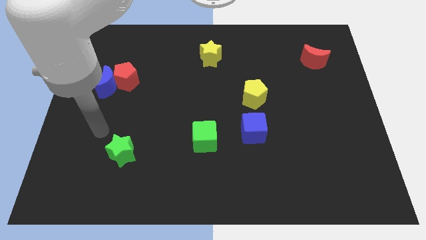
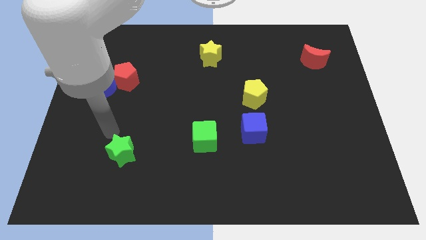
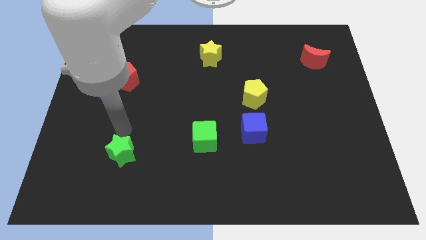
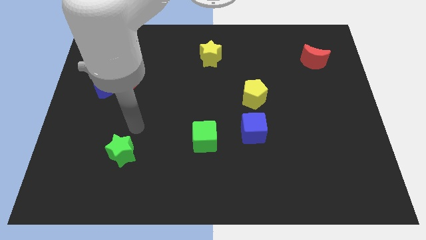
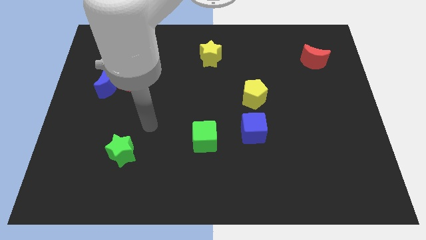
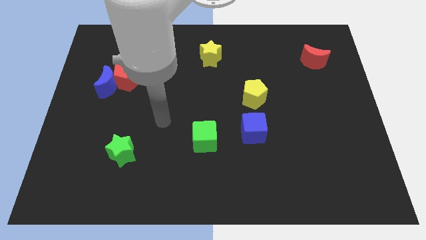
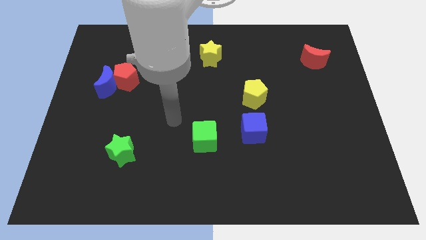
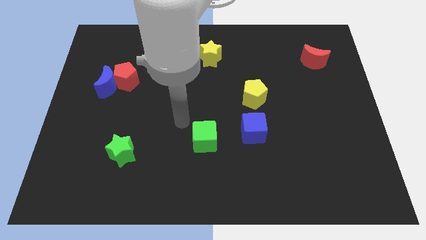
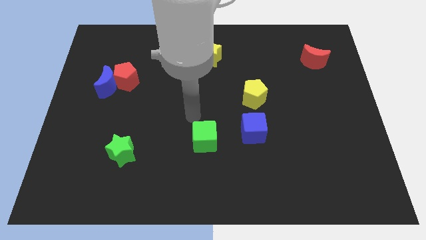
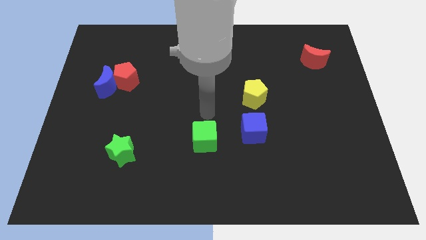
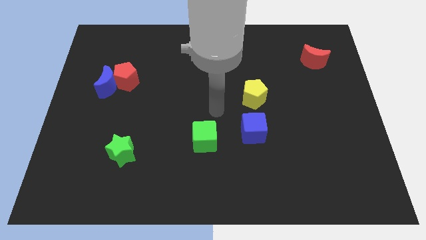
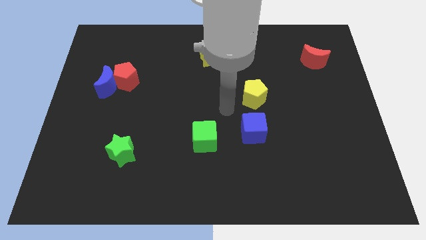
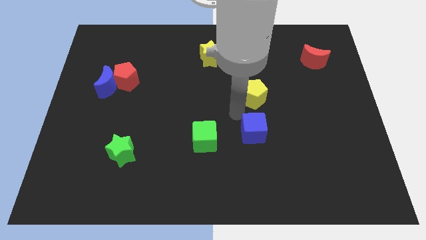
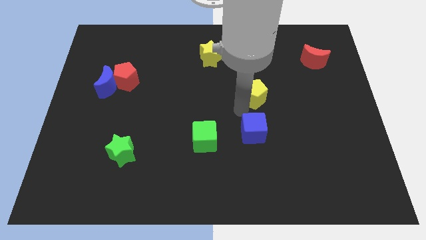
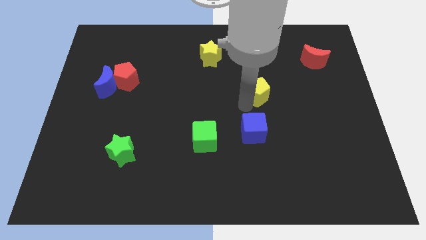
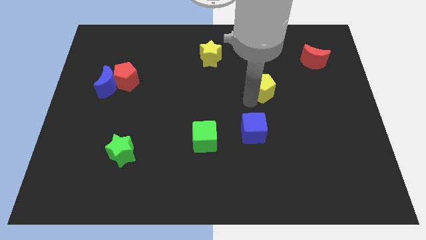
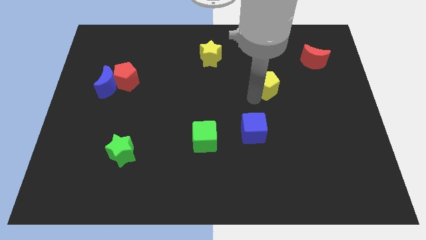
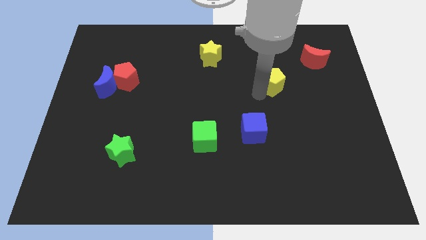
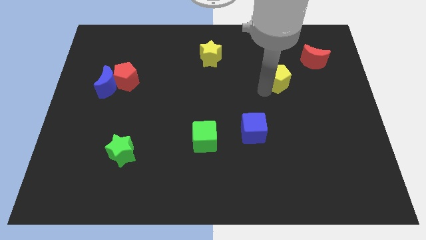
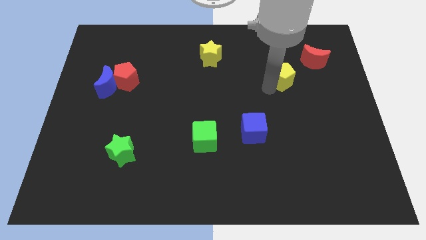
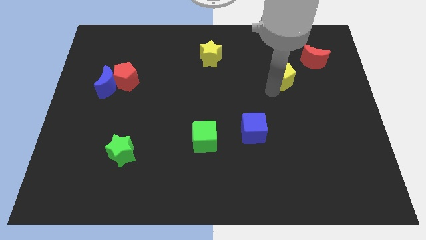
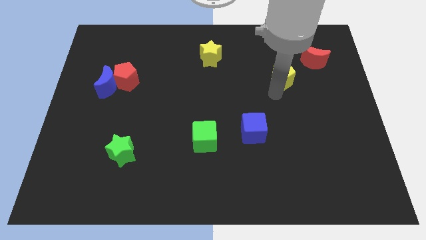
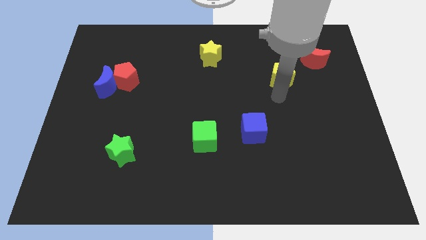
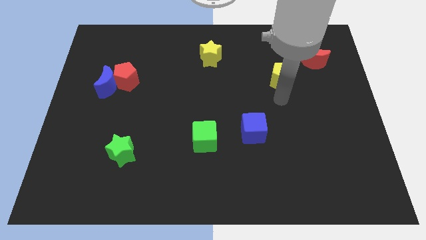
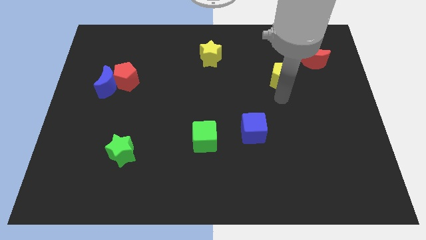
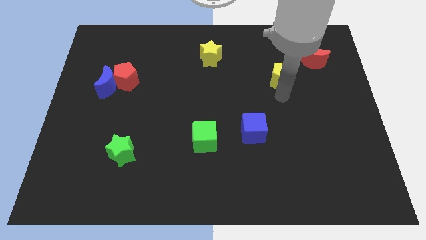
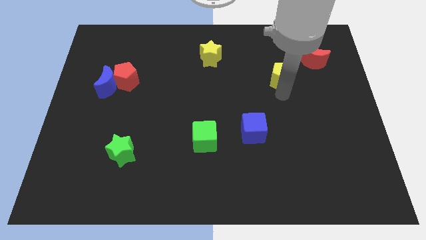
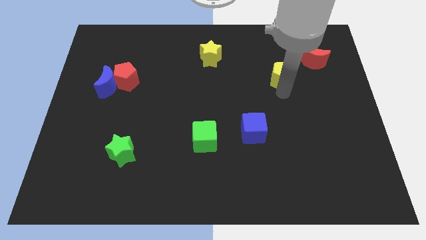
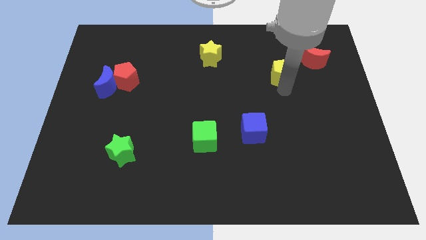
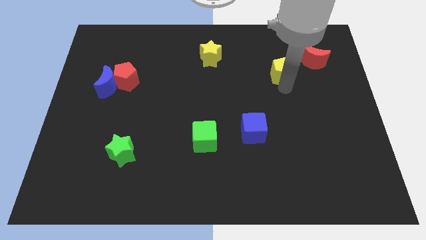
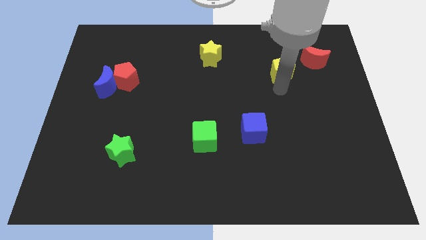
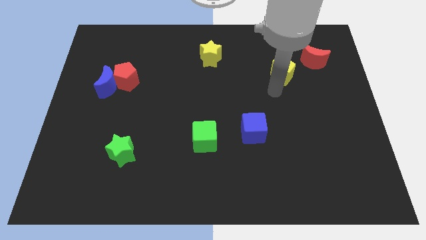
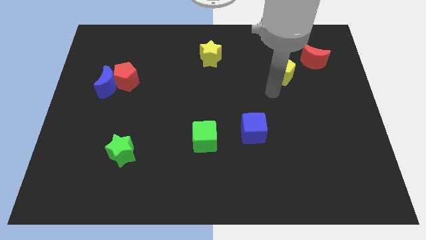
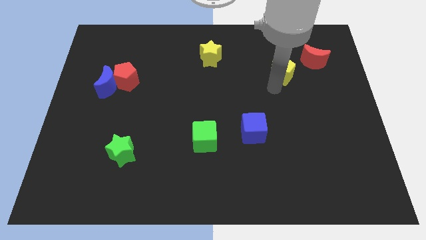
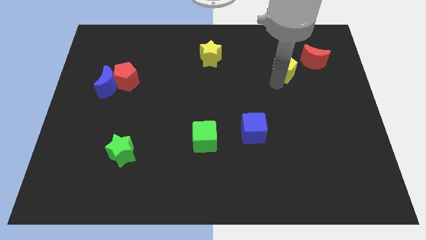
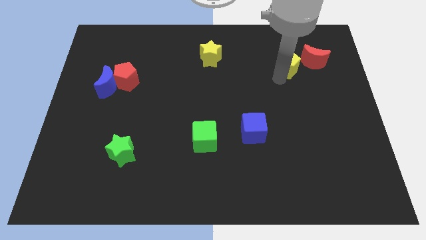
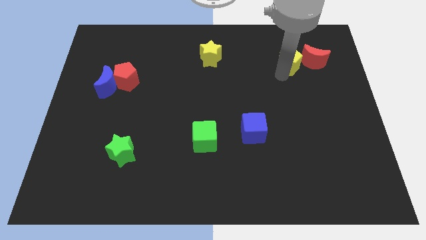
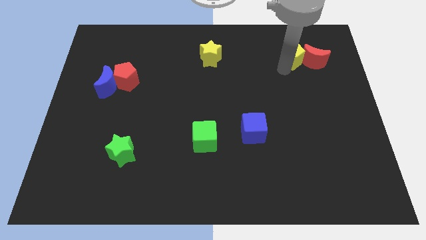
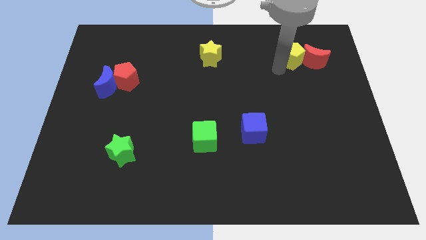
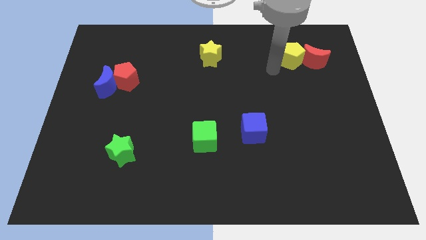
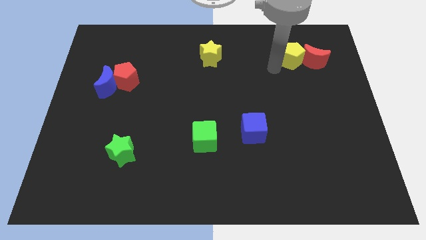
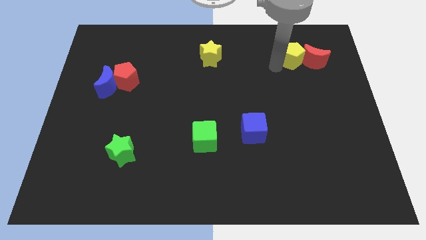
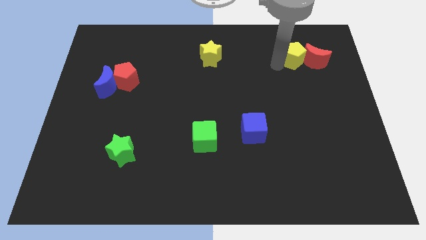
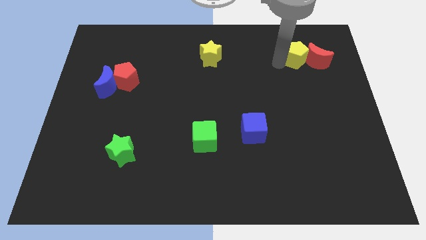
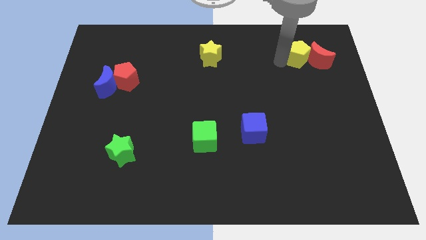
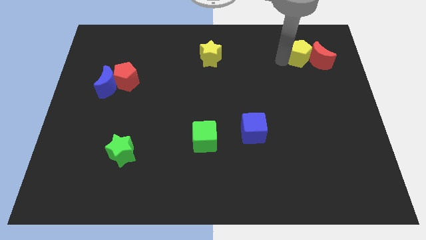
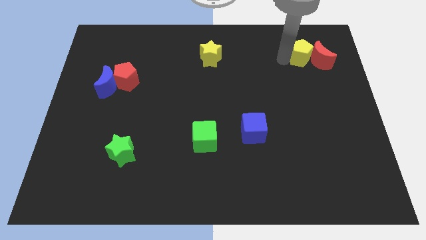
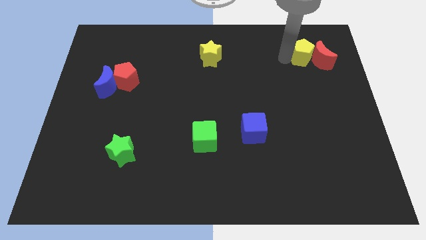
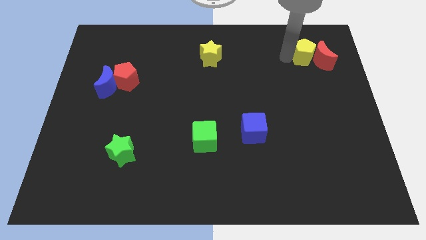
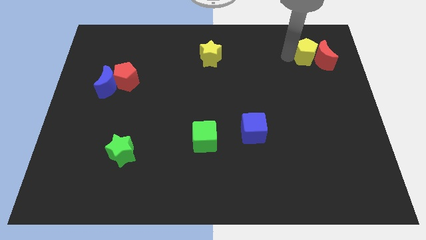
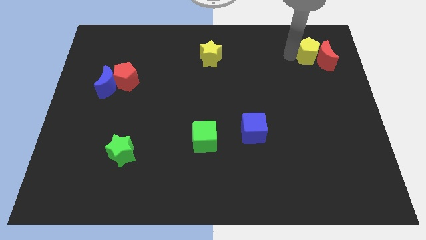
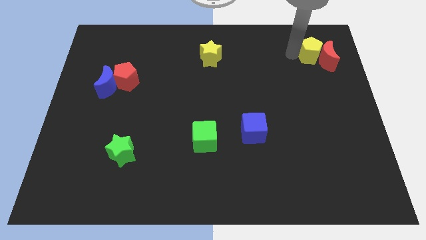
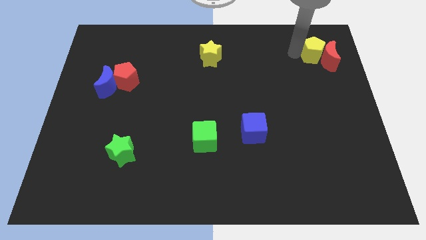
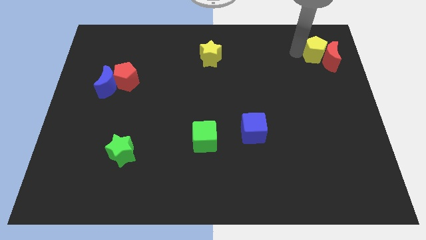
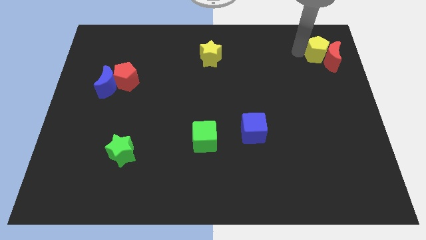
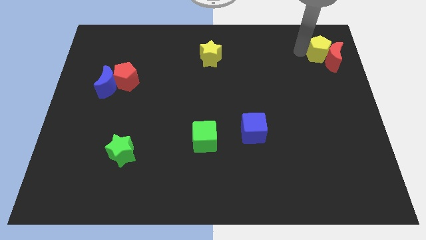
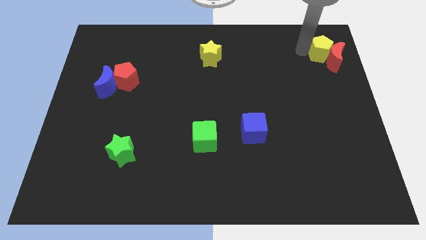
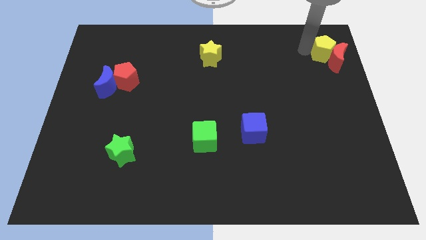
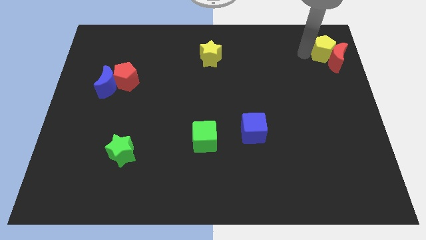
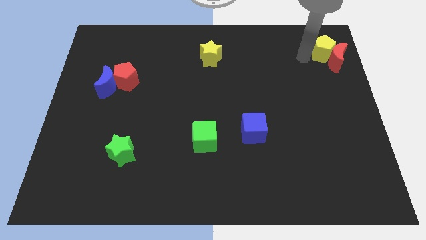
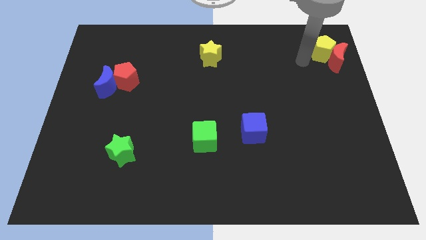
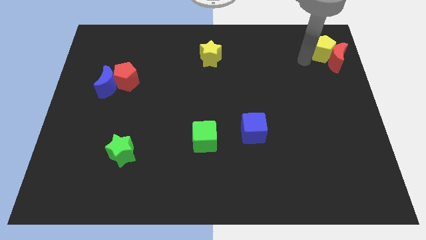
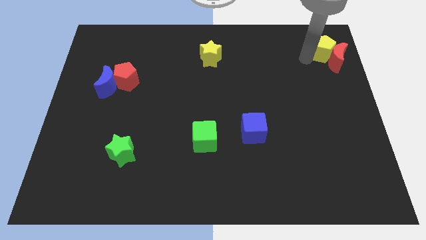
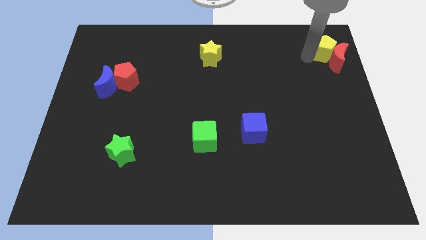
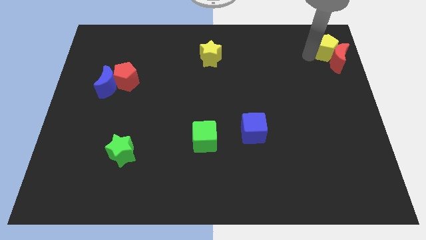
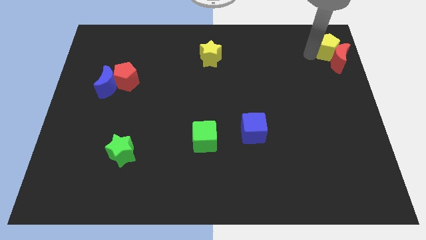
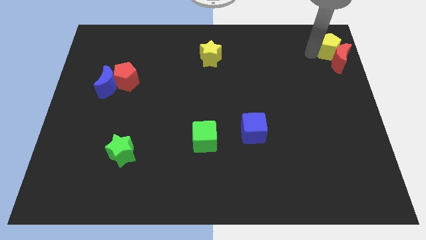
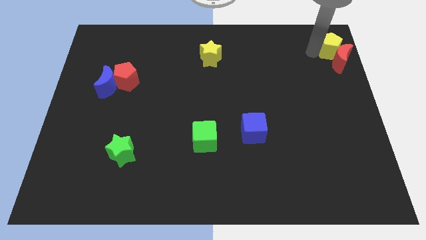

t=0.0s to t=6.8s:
move the yellow pentagon to the upper right corner
